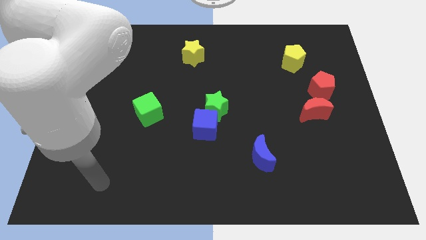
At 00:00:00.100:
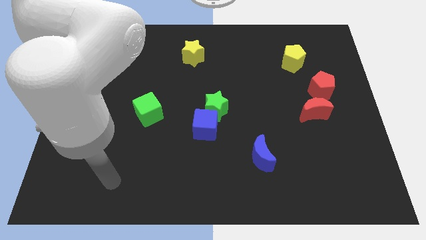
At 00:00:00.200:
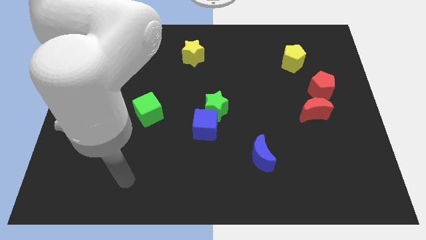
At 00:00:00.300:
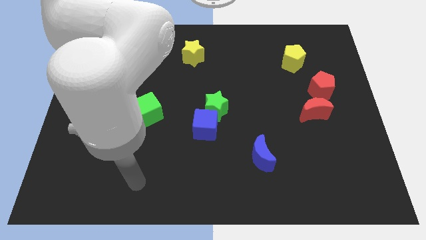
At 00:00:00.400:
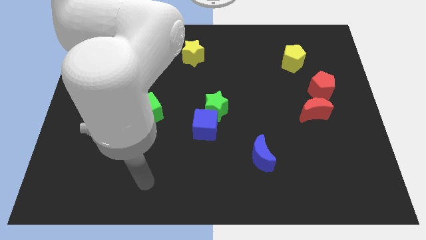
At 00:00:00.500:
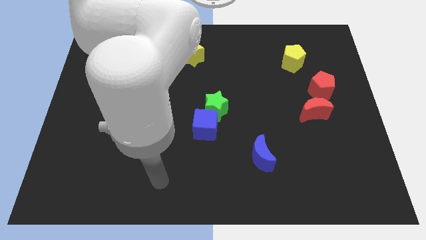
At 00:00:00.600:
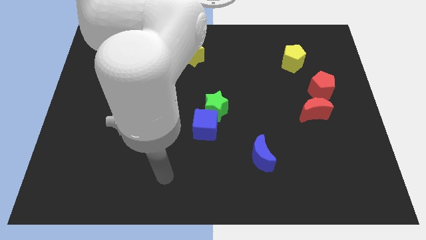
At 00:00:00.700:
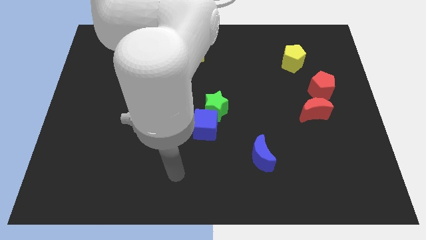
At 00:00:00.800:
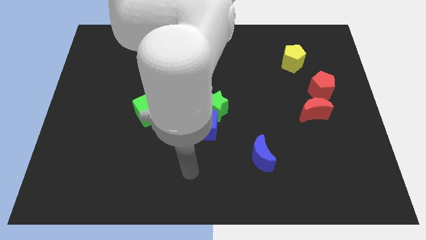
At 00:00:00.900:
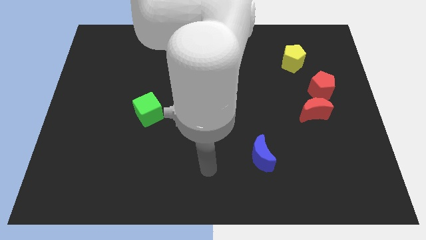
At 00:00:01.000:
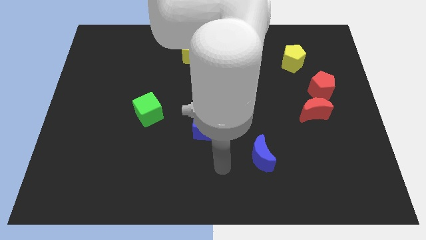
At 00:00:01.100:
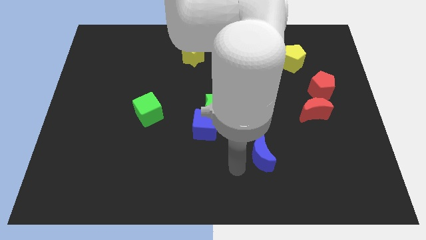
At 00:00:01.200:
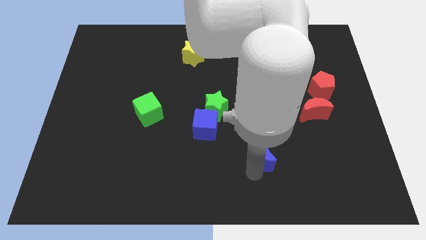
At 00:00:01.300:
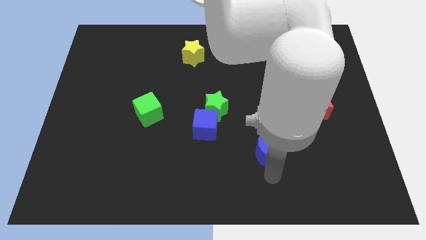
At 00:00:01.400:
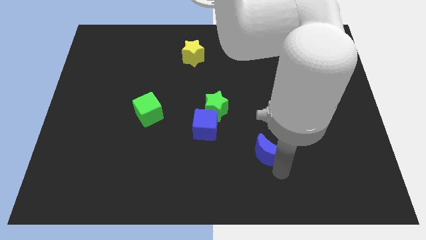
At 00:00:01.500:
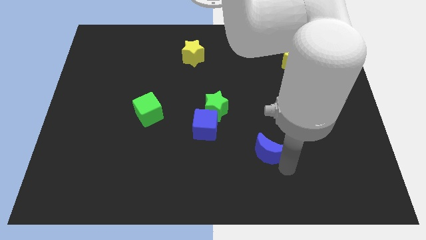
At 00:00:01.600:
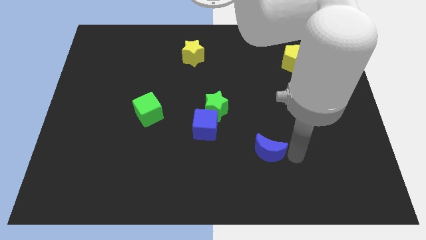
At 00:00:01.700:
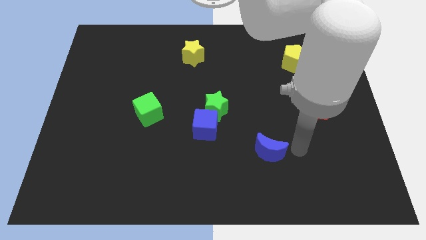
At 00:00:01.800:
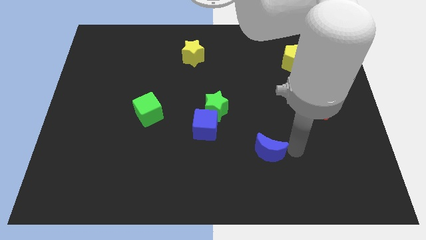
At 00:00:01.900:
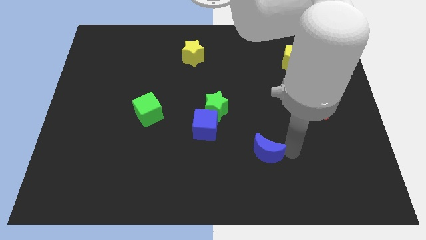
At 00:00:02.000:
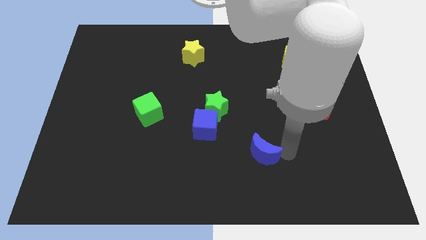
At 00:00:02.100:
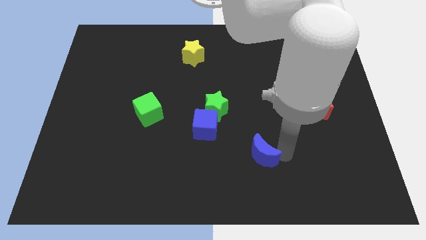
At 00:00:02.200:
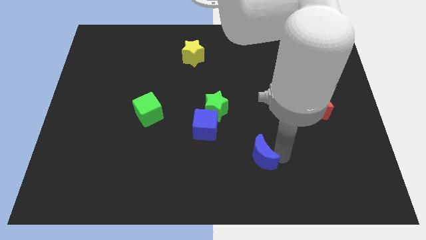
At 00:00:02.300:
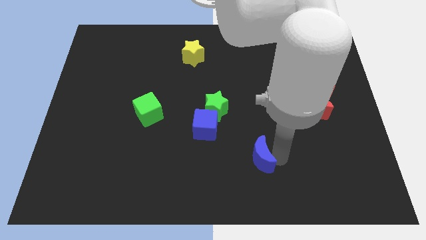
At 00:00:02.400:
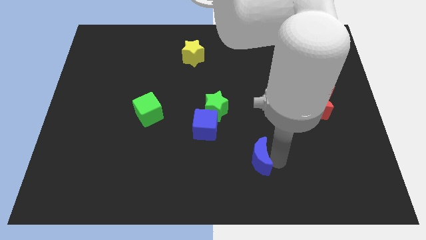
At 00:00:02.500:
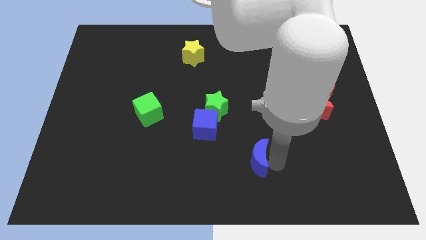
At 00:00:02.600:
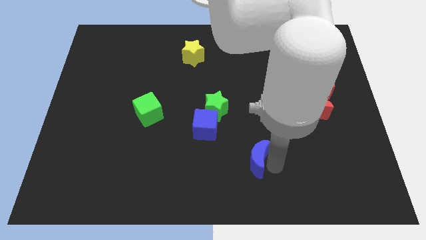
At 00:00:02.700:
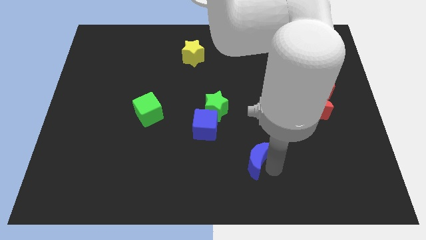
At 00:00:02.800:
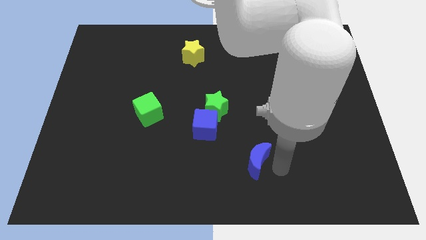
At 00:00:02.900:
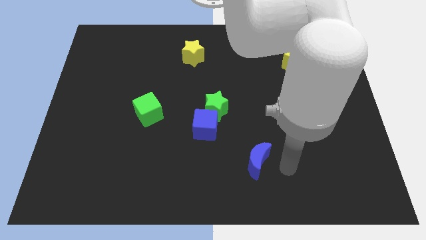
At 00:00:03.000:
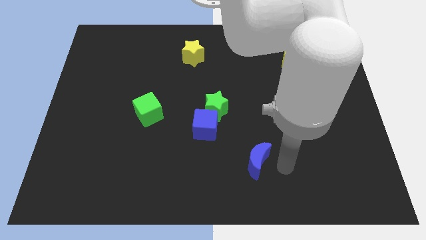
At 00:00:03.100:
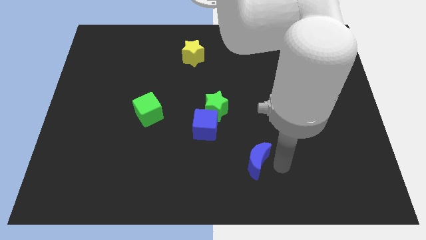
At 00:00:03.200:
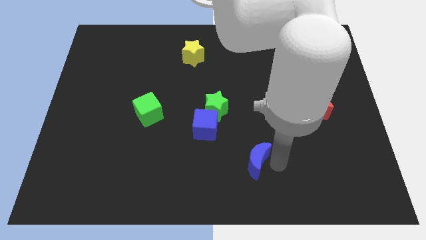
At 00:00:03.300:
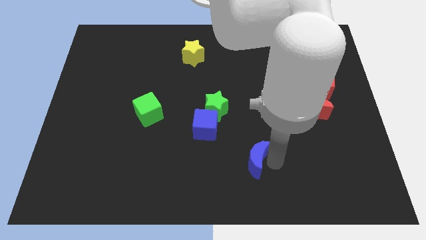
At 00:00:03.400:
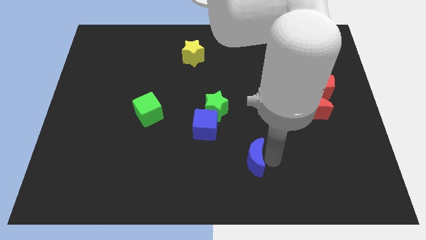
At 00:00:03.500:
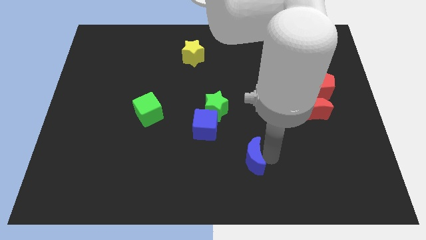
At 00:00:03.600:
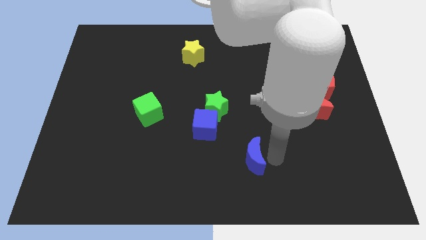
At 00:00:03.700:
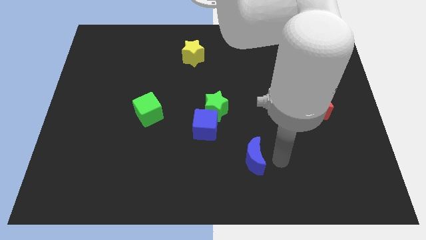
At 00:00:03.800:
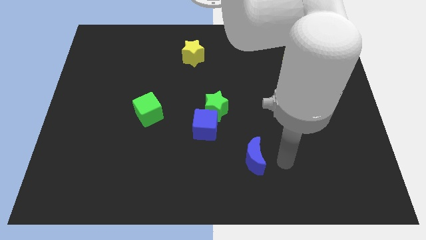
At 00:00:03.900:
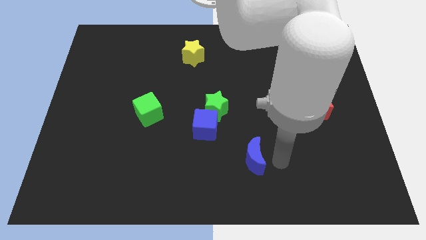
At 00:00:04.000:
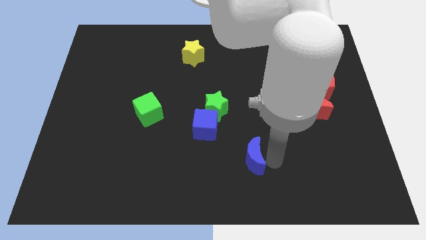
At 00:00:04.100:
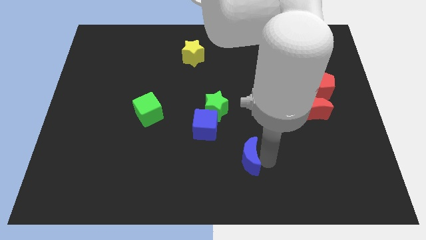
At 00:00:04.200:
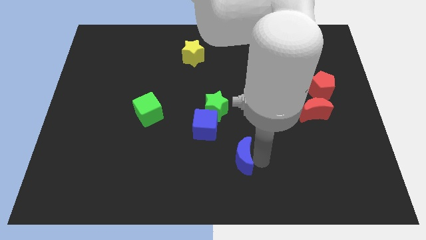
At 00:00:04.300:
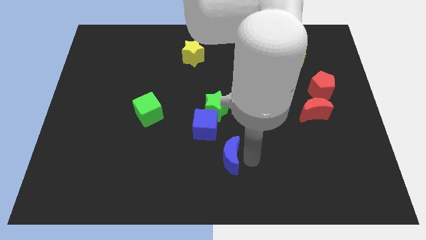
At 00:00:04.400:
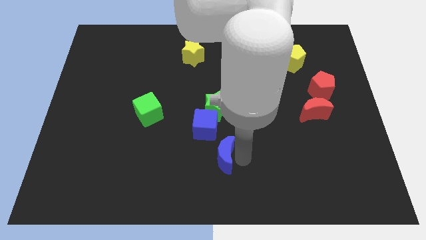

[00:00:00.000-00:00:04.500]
move the blue moon a little bit to the left

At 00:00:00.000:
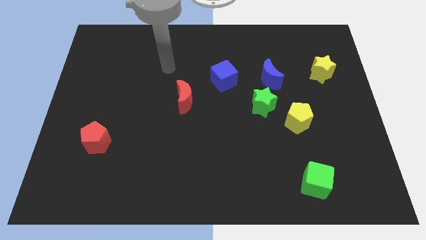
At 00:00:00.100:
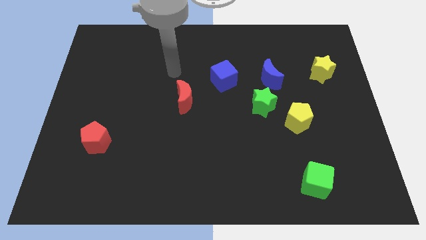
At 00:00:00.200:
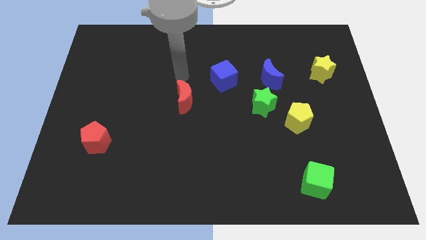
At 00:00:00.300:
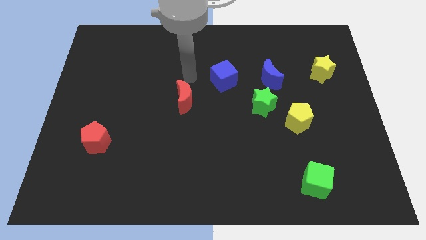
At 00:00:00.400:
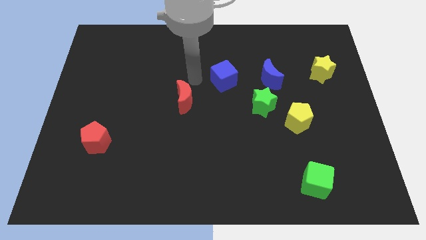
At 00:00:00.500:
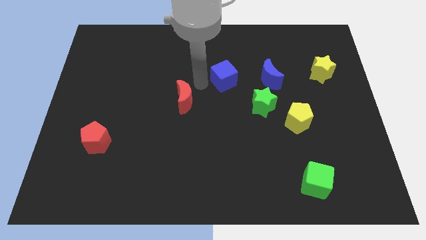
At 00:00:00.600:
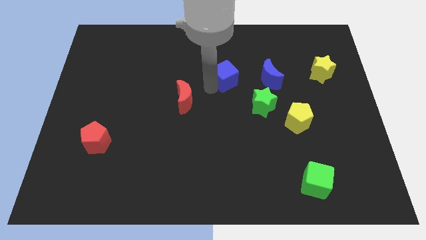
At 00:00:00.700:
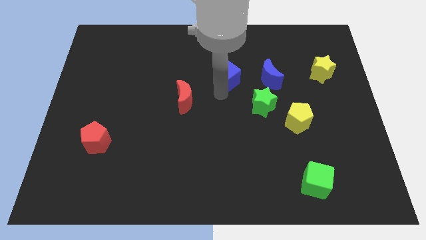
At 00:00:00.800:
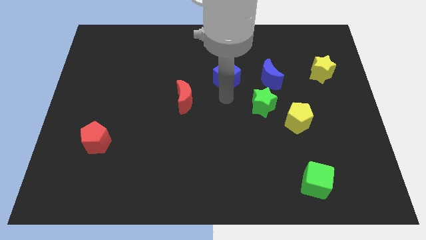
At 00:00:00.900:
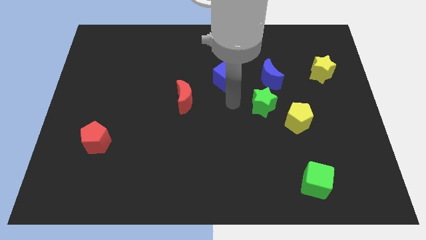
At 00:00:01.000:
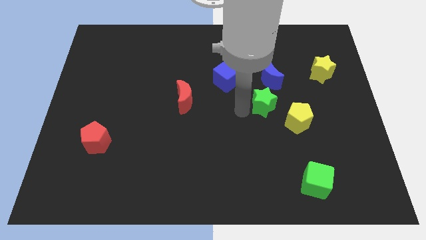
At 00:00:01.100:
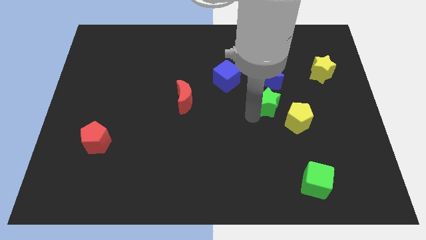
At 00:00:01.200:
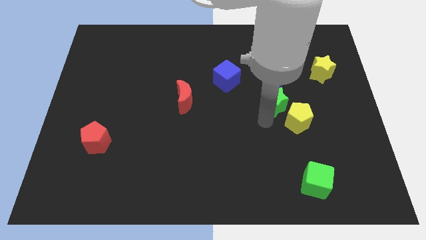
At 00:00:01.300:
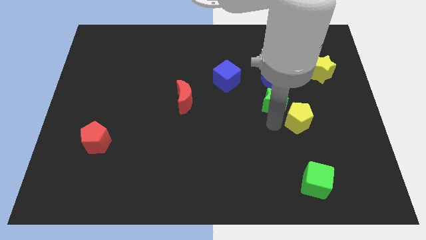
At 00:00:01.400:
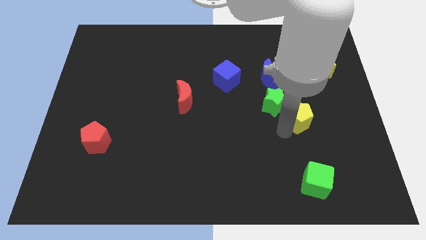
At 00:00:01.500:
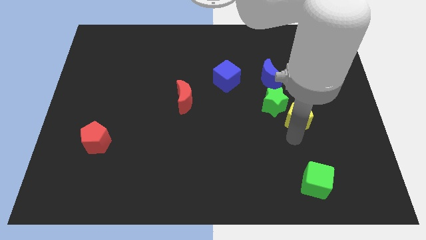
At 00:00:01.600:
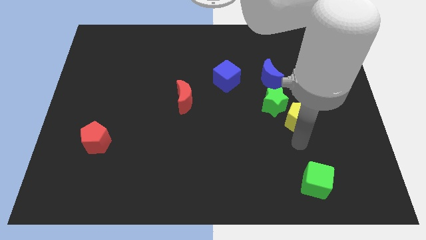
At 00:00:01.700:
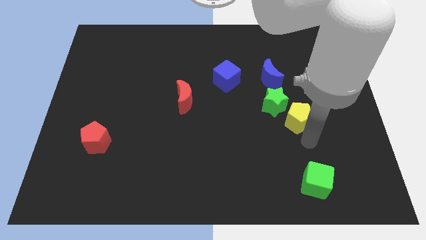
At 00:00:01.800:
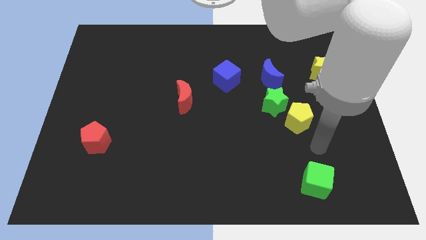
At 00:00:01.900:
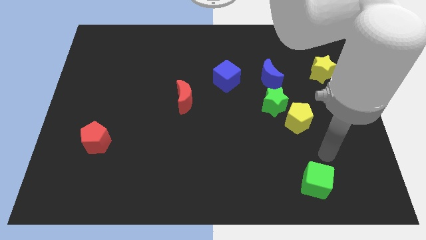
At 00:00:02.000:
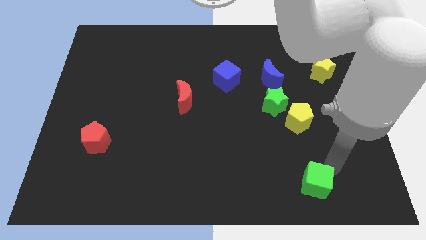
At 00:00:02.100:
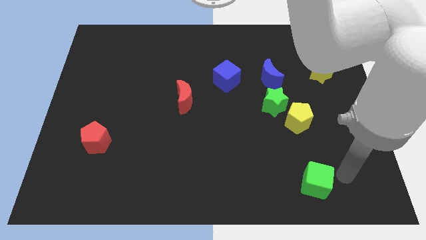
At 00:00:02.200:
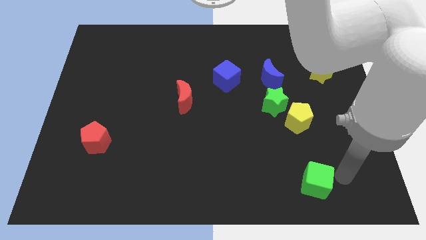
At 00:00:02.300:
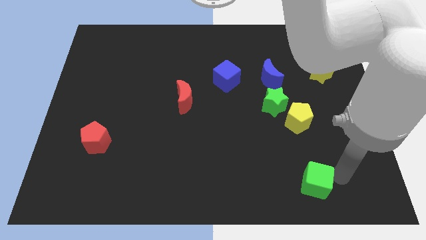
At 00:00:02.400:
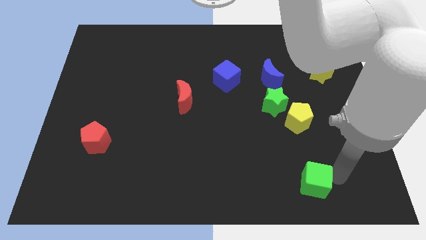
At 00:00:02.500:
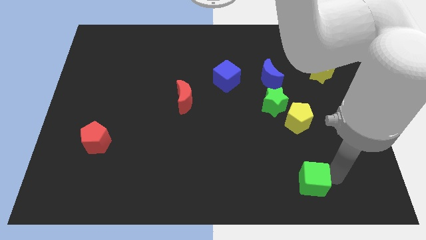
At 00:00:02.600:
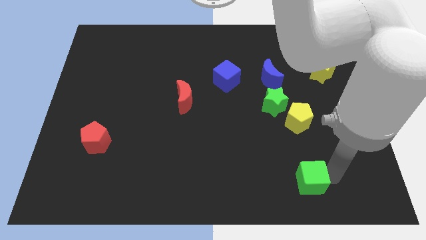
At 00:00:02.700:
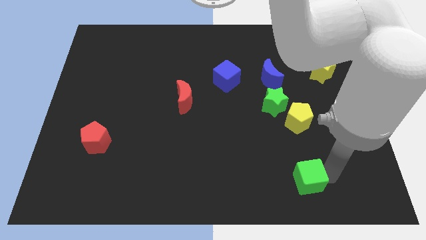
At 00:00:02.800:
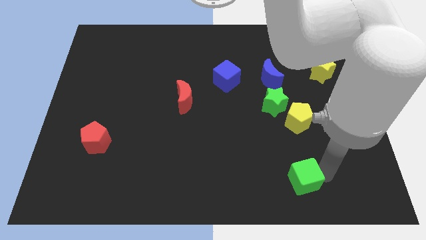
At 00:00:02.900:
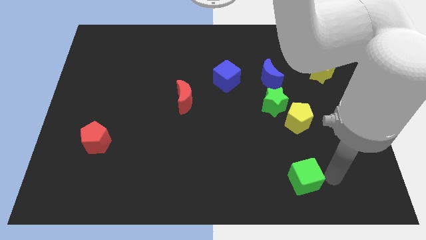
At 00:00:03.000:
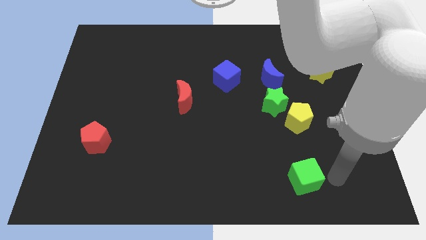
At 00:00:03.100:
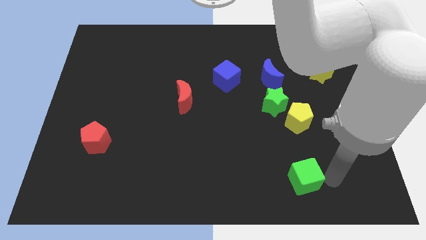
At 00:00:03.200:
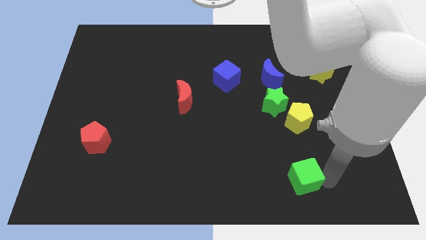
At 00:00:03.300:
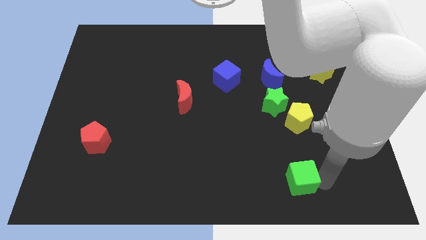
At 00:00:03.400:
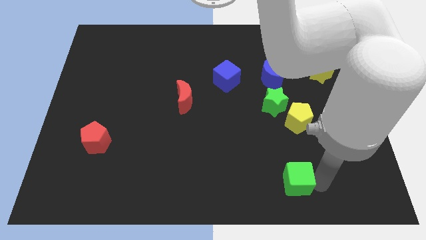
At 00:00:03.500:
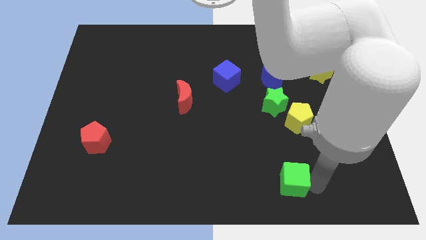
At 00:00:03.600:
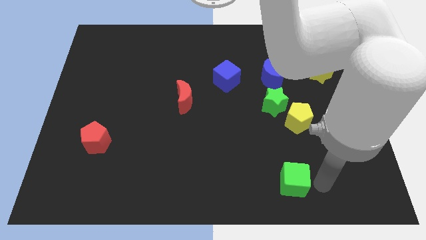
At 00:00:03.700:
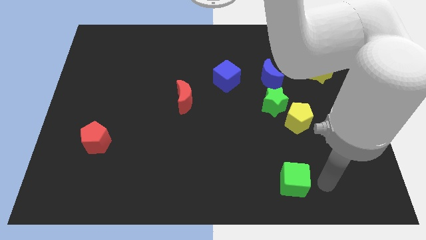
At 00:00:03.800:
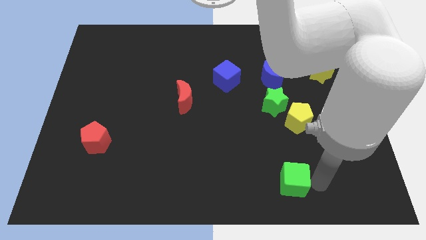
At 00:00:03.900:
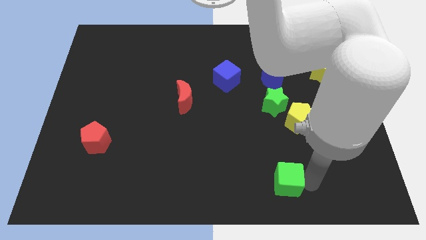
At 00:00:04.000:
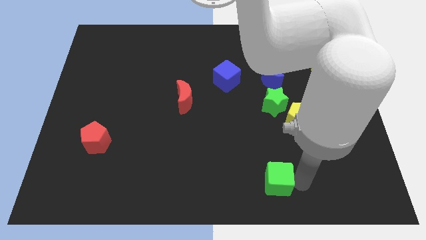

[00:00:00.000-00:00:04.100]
push the green cube left a little bit
